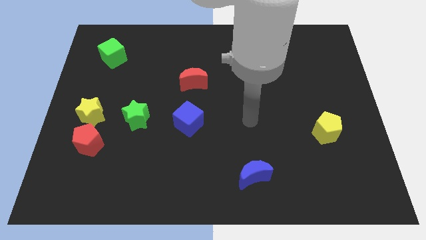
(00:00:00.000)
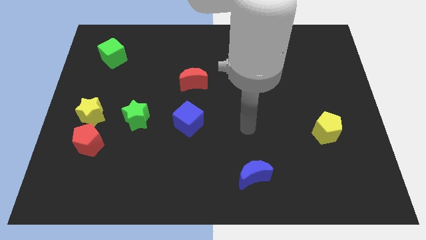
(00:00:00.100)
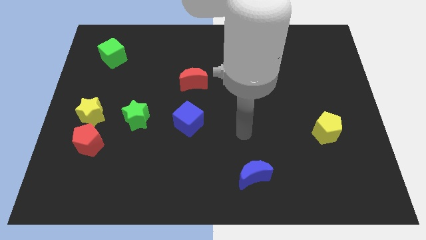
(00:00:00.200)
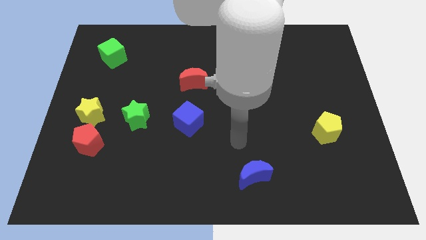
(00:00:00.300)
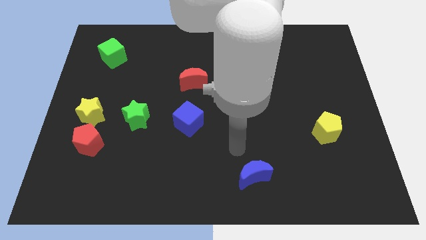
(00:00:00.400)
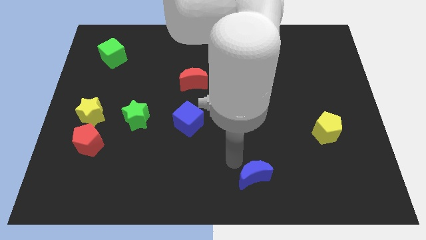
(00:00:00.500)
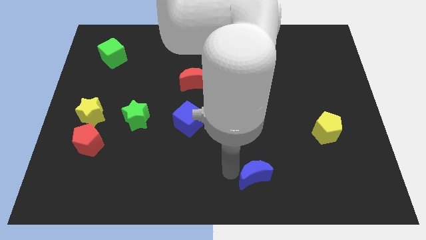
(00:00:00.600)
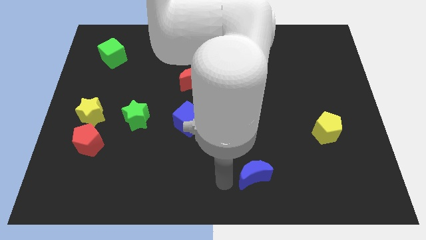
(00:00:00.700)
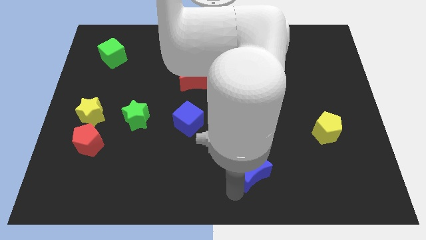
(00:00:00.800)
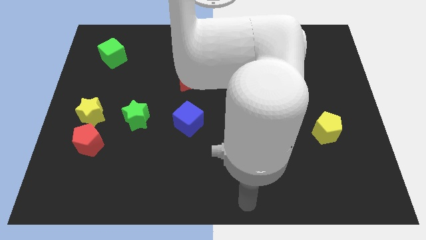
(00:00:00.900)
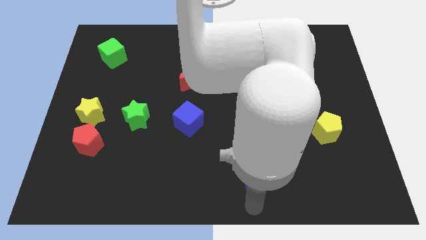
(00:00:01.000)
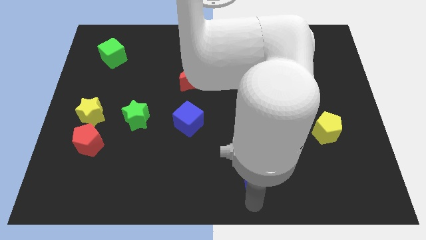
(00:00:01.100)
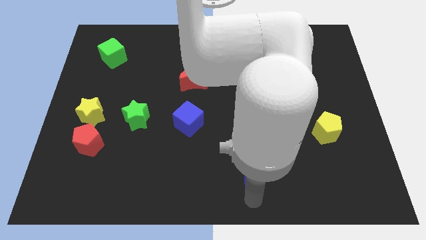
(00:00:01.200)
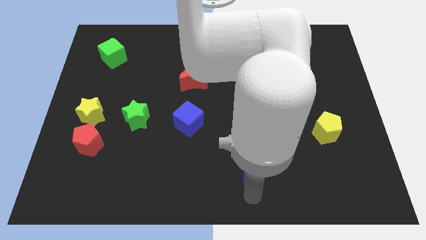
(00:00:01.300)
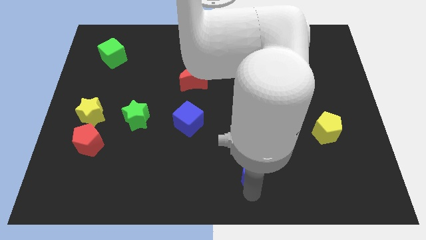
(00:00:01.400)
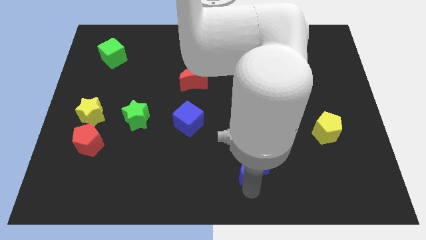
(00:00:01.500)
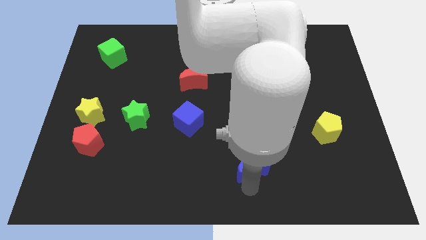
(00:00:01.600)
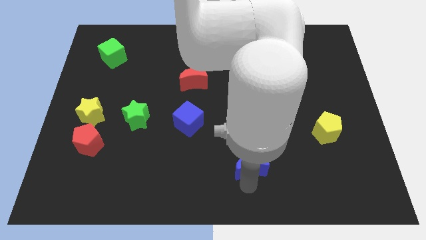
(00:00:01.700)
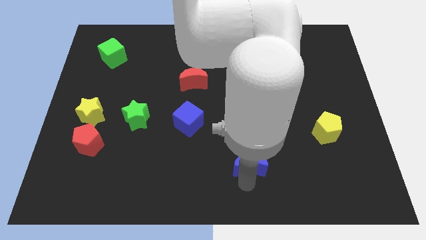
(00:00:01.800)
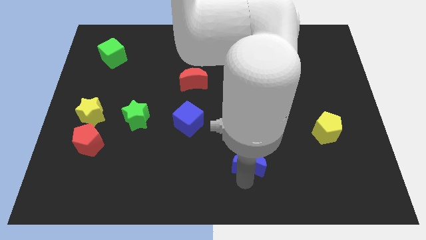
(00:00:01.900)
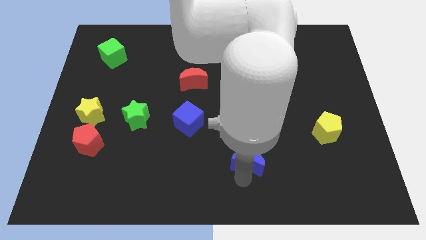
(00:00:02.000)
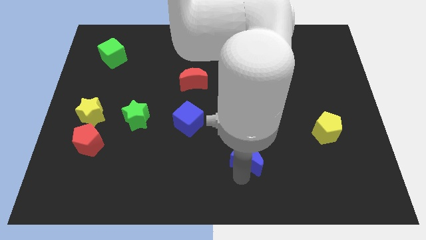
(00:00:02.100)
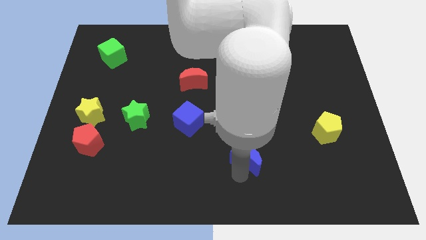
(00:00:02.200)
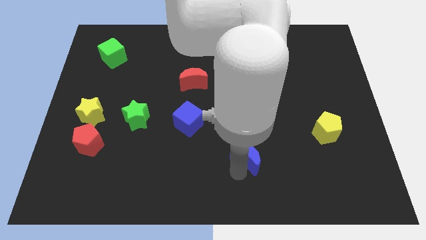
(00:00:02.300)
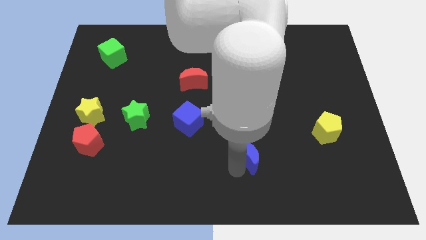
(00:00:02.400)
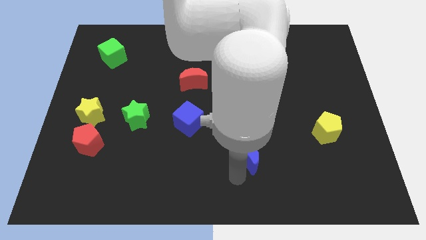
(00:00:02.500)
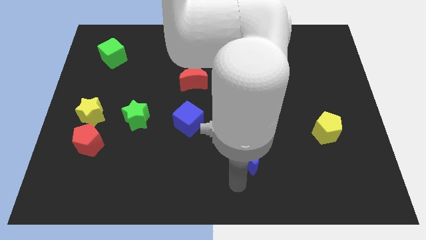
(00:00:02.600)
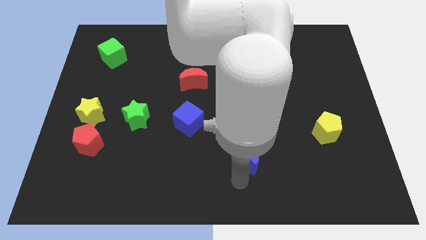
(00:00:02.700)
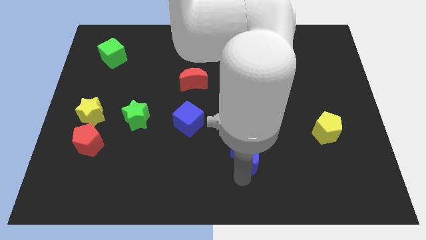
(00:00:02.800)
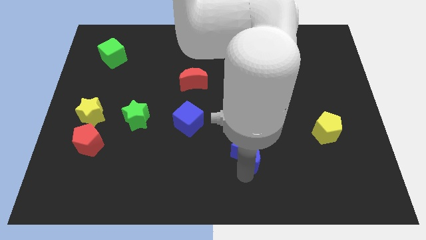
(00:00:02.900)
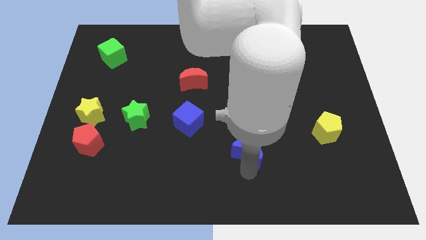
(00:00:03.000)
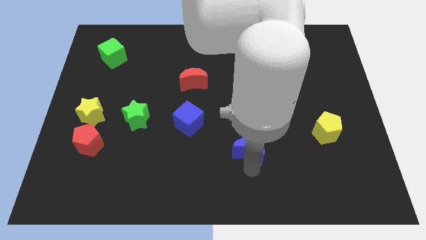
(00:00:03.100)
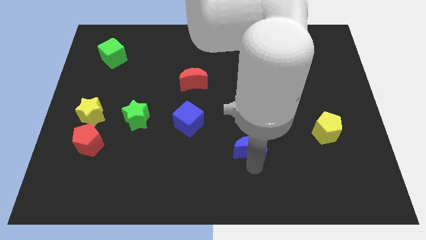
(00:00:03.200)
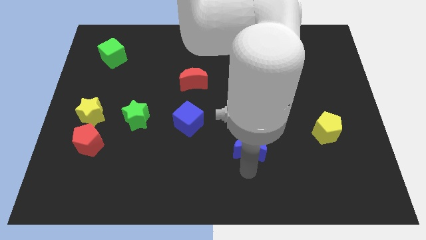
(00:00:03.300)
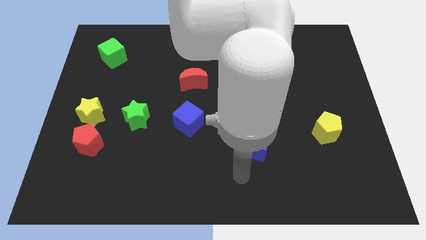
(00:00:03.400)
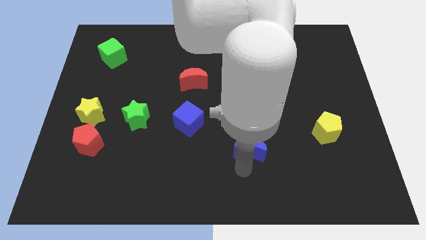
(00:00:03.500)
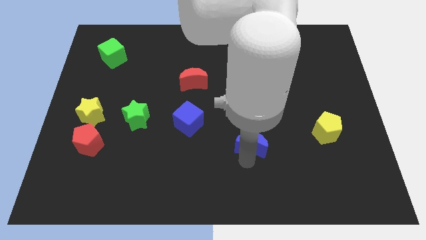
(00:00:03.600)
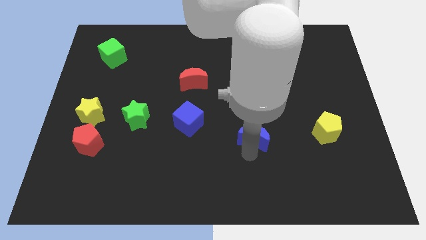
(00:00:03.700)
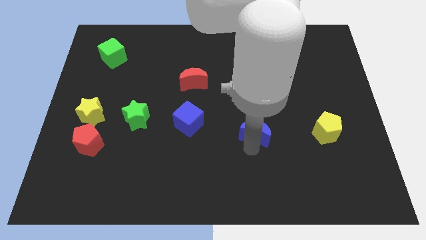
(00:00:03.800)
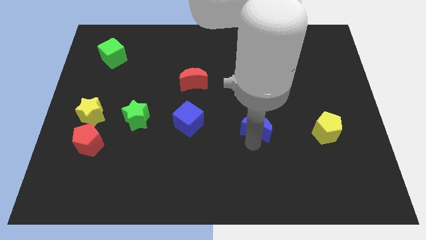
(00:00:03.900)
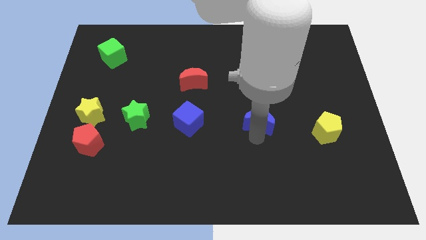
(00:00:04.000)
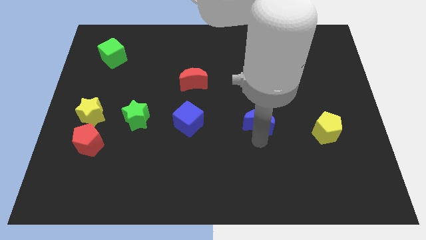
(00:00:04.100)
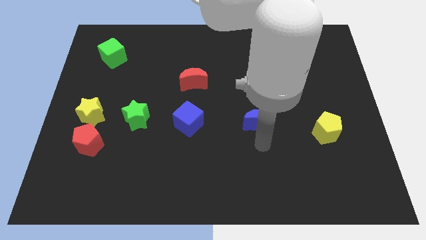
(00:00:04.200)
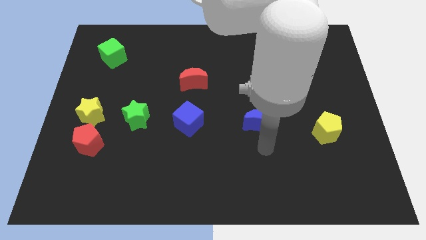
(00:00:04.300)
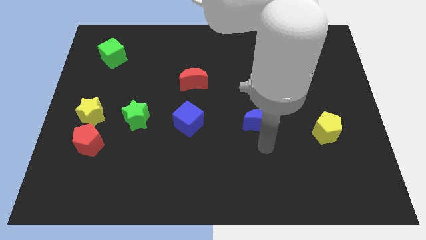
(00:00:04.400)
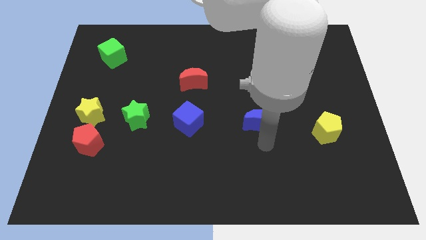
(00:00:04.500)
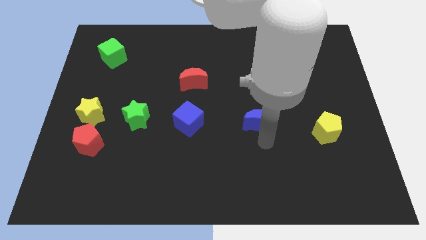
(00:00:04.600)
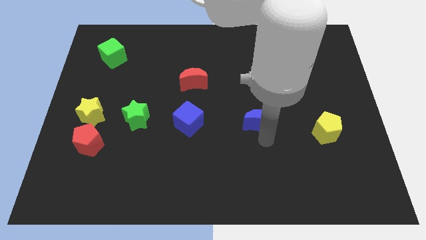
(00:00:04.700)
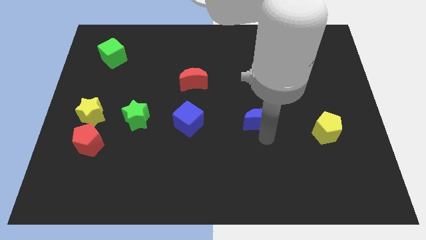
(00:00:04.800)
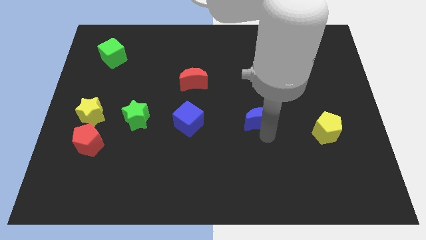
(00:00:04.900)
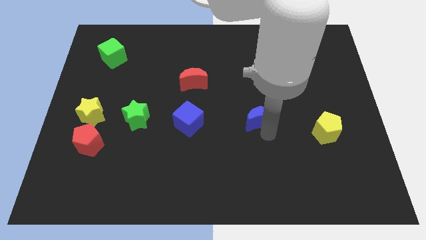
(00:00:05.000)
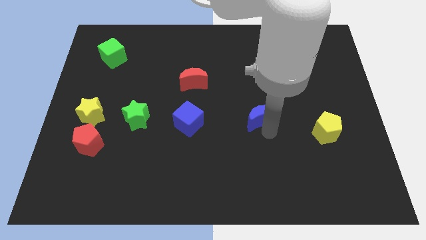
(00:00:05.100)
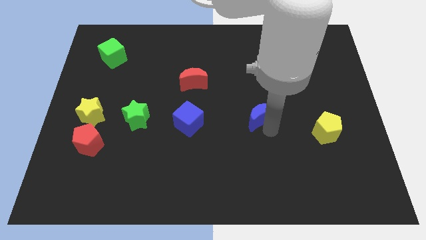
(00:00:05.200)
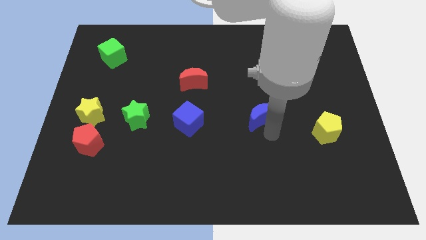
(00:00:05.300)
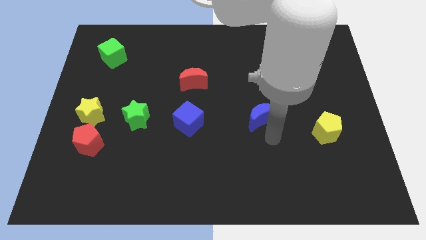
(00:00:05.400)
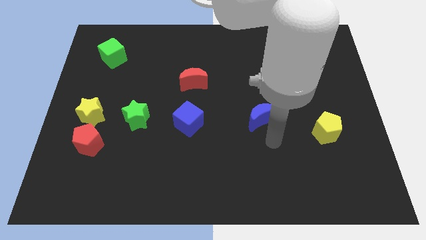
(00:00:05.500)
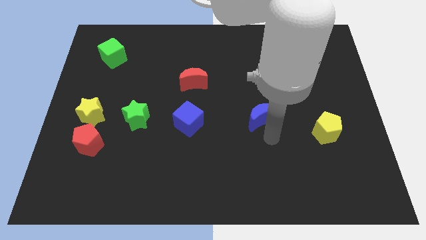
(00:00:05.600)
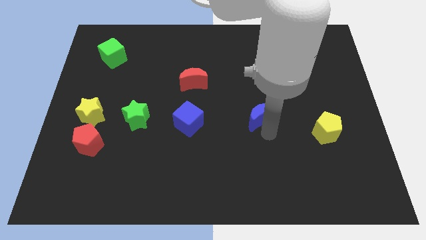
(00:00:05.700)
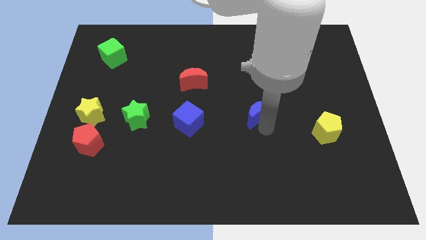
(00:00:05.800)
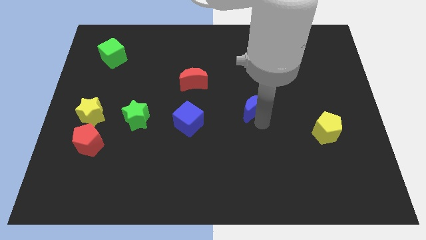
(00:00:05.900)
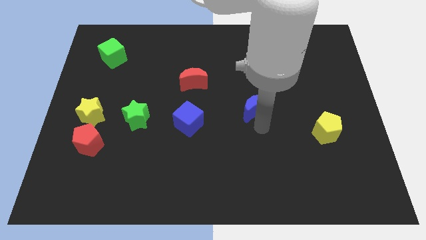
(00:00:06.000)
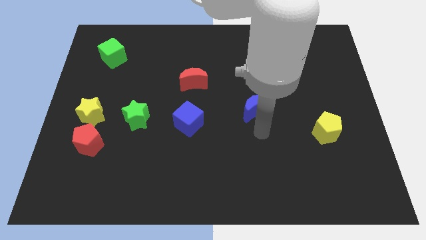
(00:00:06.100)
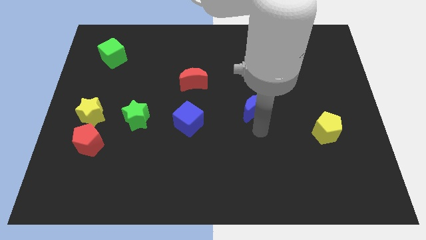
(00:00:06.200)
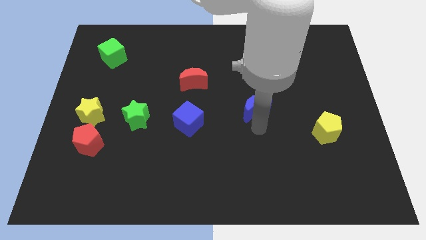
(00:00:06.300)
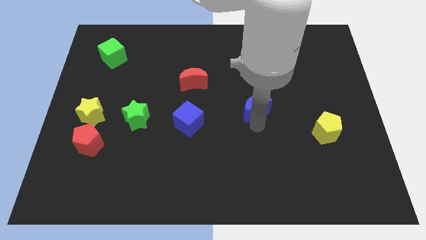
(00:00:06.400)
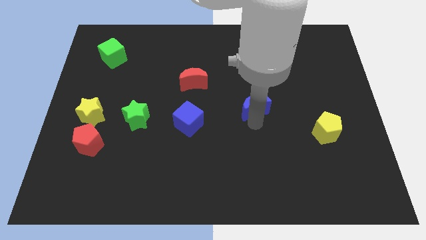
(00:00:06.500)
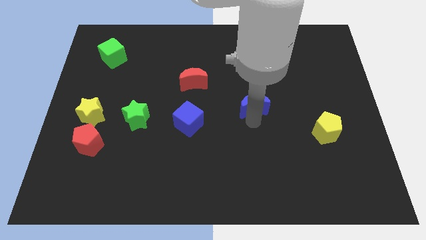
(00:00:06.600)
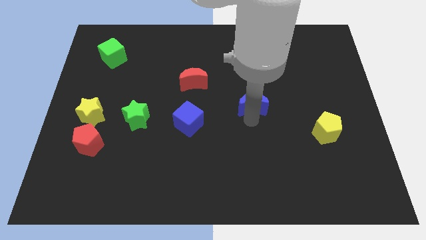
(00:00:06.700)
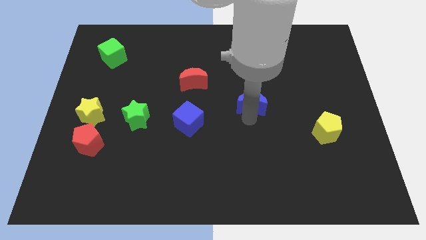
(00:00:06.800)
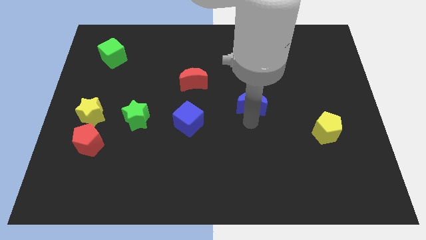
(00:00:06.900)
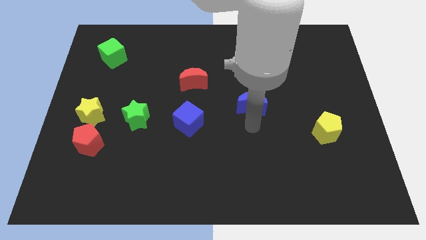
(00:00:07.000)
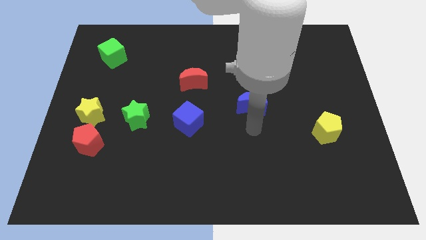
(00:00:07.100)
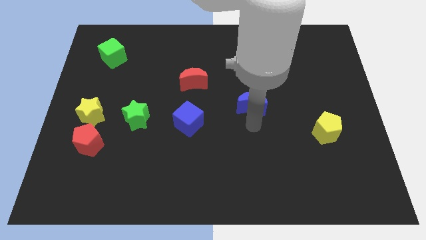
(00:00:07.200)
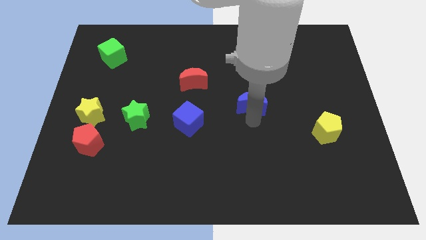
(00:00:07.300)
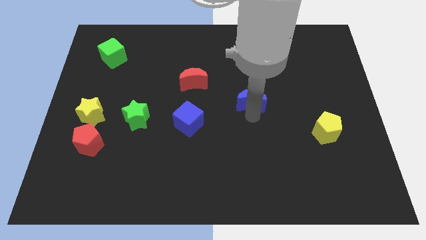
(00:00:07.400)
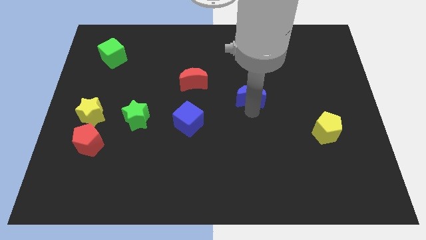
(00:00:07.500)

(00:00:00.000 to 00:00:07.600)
slide the blue moon upwards

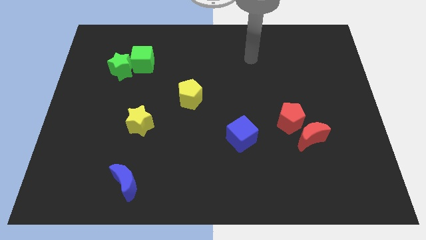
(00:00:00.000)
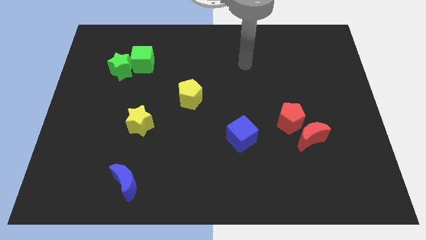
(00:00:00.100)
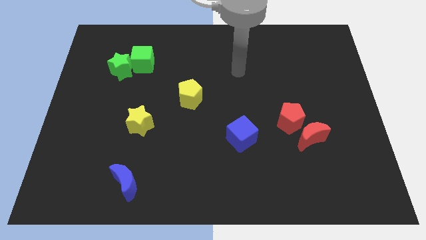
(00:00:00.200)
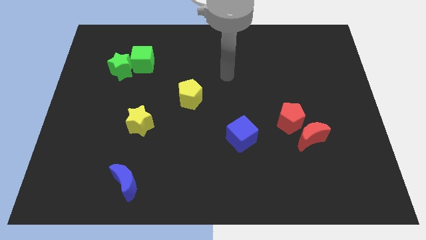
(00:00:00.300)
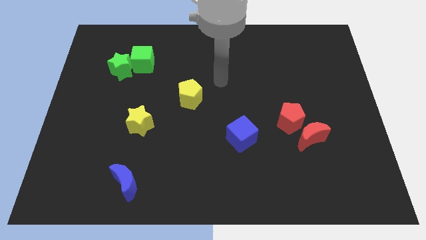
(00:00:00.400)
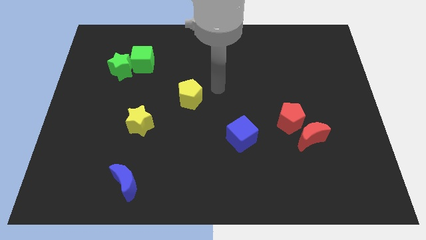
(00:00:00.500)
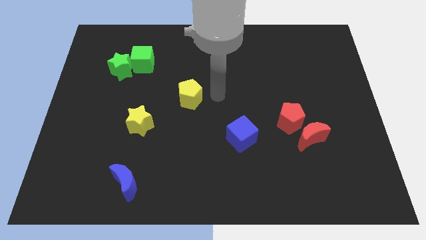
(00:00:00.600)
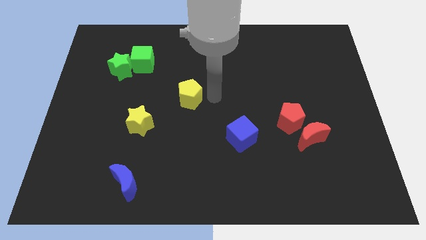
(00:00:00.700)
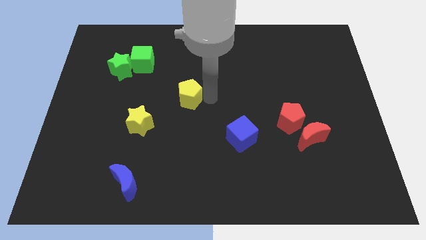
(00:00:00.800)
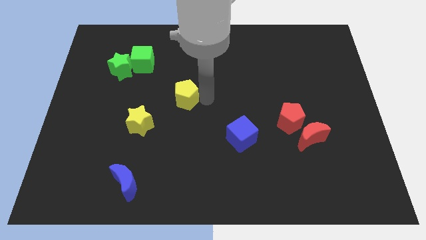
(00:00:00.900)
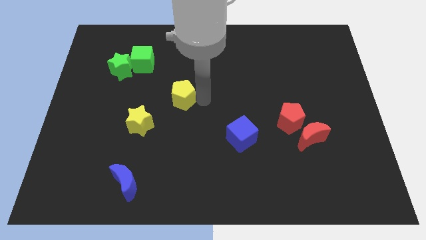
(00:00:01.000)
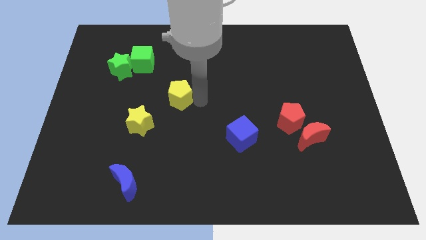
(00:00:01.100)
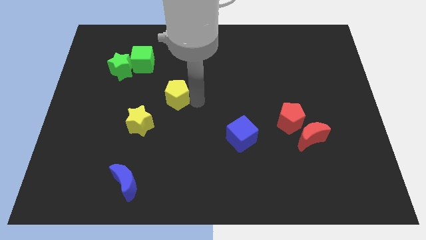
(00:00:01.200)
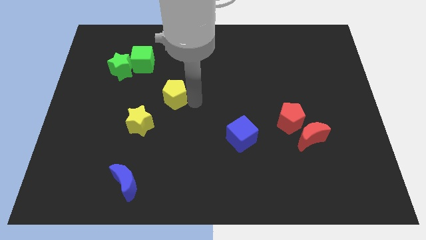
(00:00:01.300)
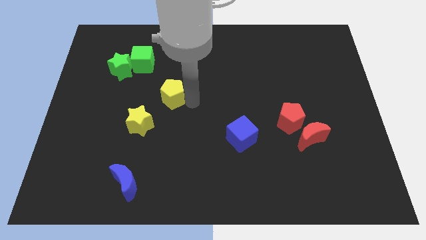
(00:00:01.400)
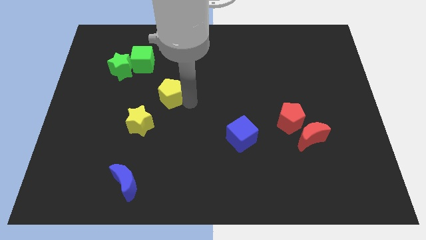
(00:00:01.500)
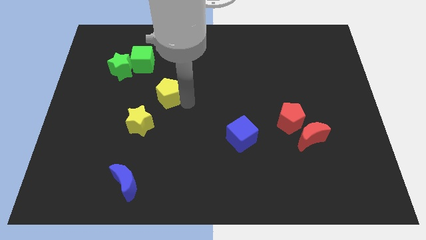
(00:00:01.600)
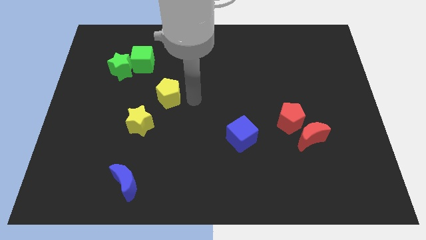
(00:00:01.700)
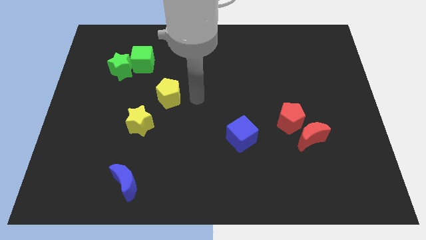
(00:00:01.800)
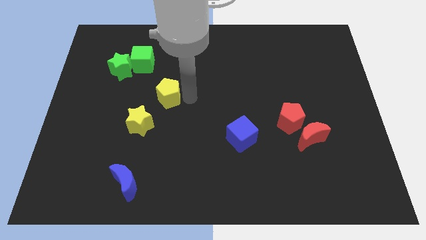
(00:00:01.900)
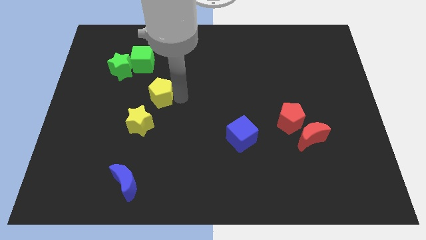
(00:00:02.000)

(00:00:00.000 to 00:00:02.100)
slightly move the yellow pentagon left
